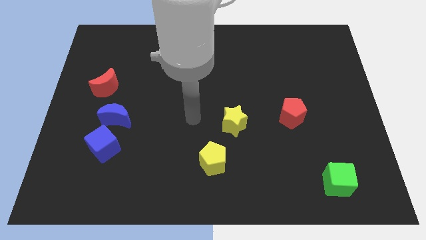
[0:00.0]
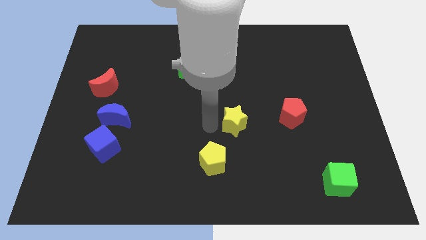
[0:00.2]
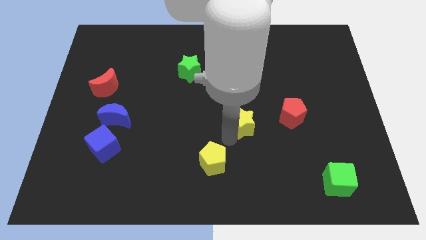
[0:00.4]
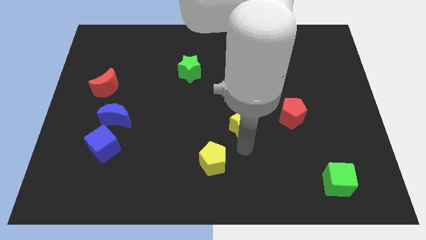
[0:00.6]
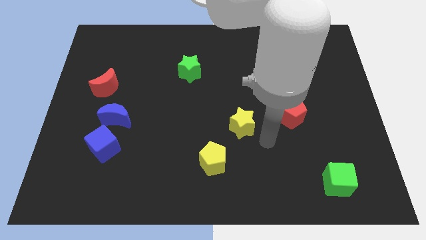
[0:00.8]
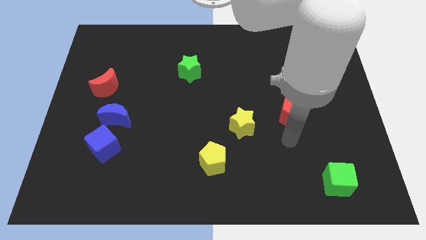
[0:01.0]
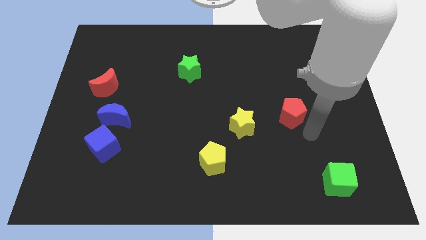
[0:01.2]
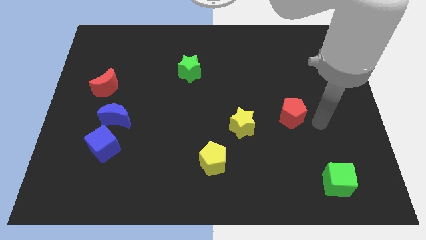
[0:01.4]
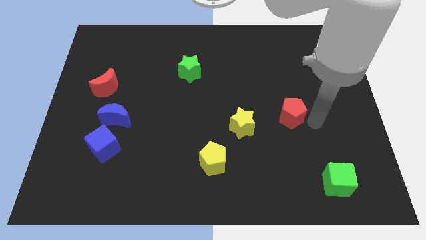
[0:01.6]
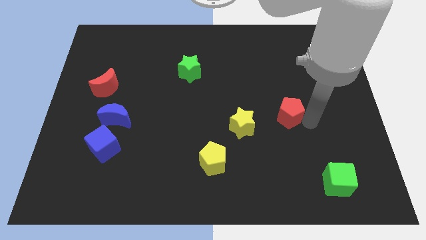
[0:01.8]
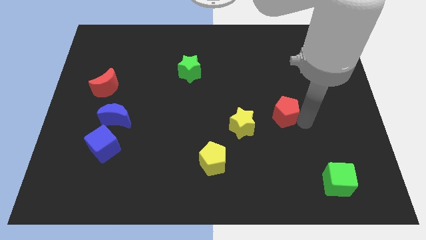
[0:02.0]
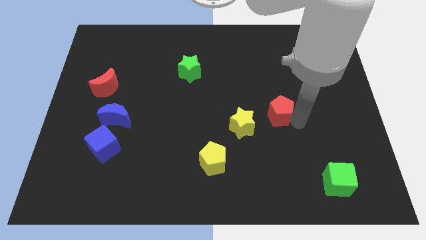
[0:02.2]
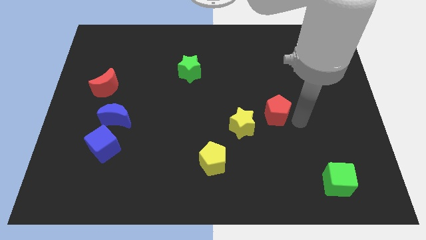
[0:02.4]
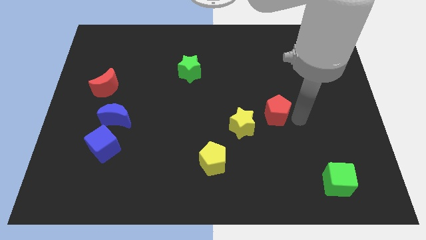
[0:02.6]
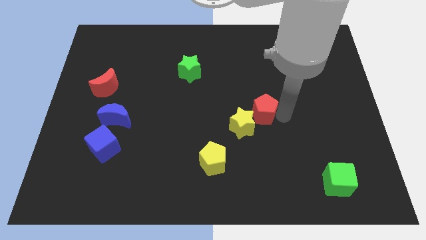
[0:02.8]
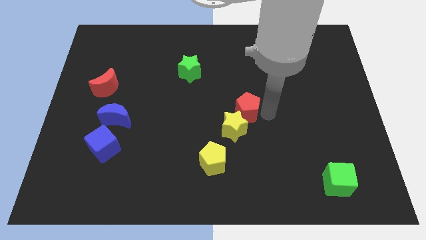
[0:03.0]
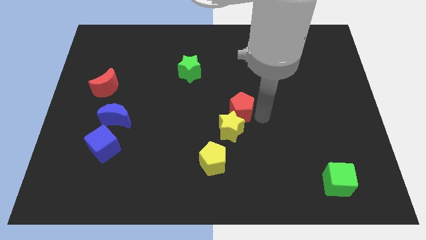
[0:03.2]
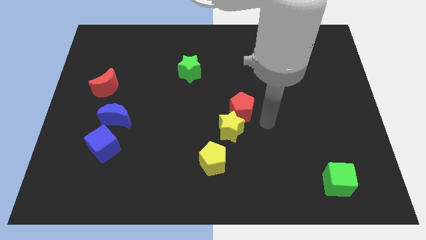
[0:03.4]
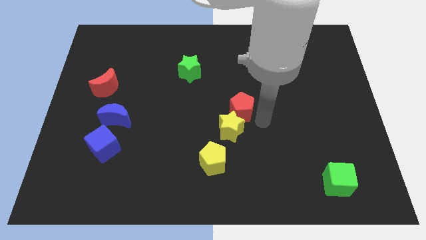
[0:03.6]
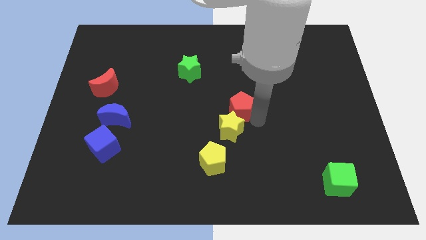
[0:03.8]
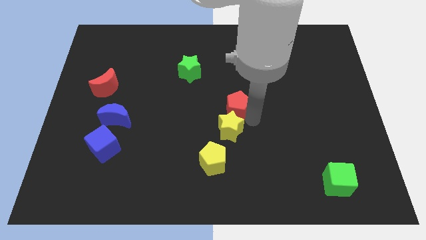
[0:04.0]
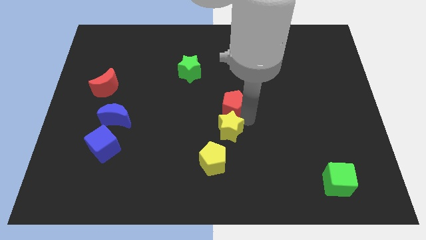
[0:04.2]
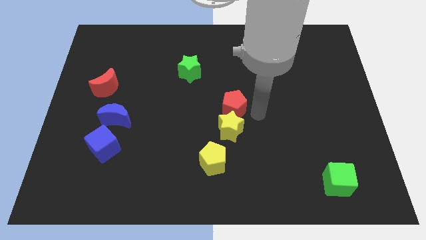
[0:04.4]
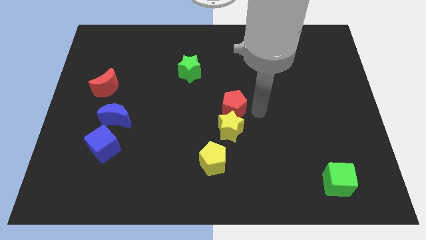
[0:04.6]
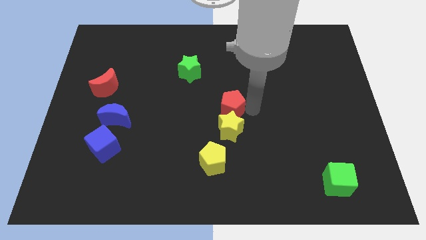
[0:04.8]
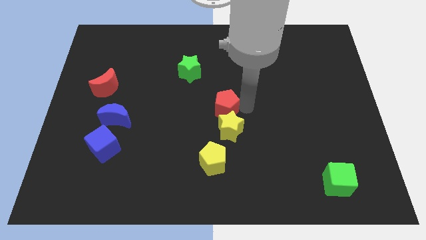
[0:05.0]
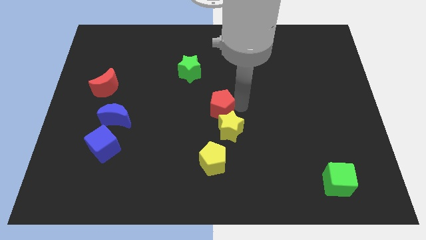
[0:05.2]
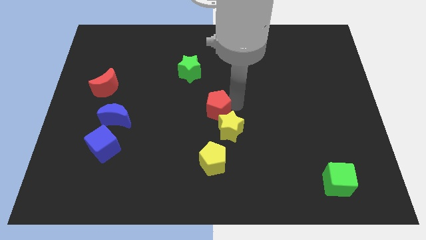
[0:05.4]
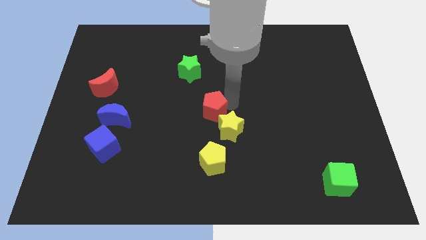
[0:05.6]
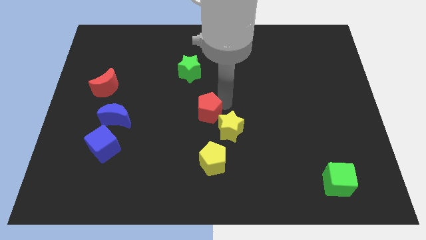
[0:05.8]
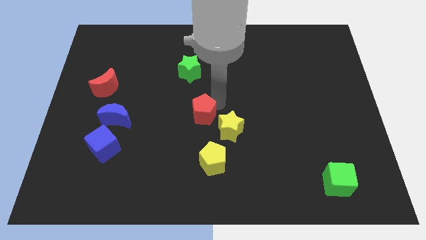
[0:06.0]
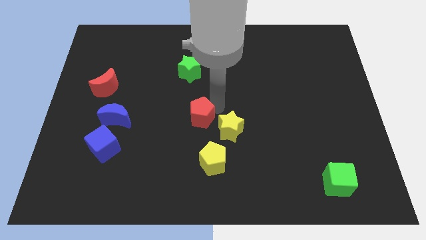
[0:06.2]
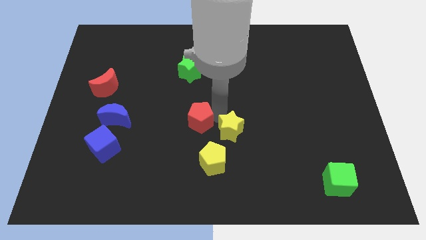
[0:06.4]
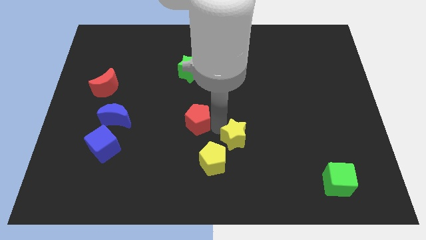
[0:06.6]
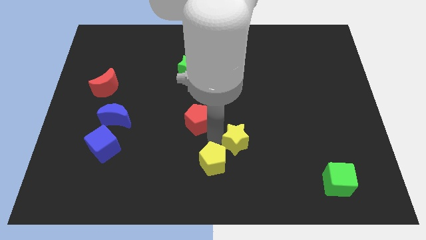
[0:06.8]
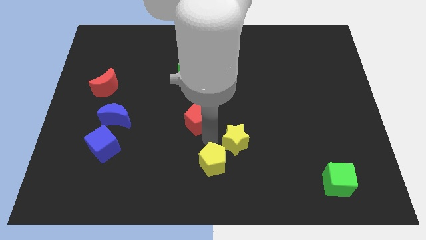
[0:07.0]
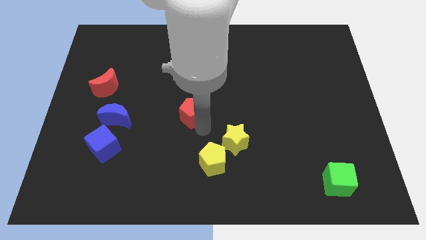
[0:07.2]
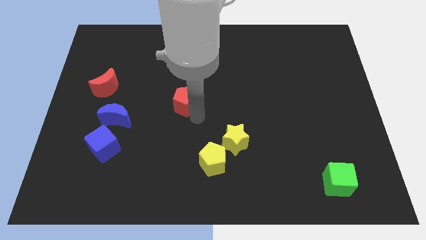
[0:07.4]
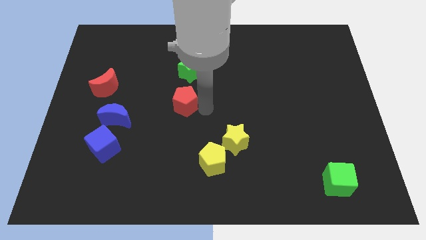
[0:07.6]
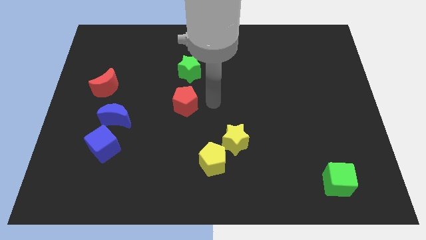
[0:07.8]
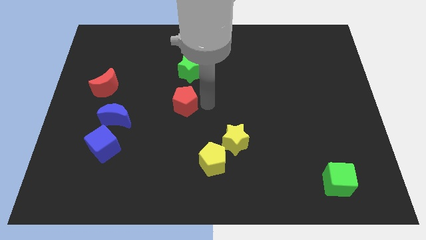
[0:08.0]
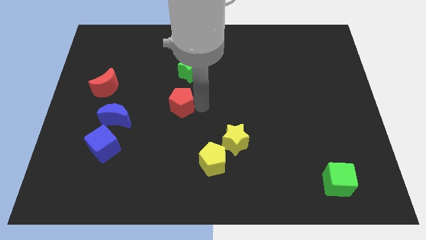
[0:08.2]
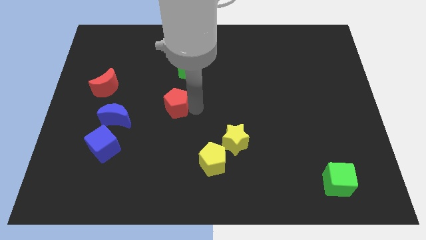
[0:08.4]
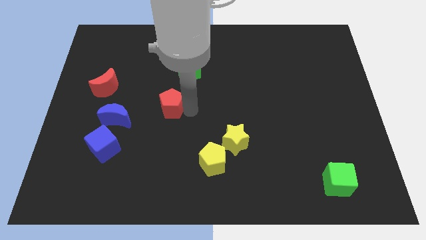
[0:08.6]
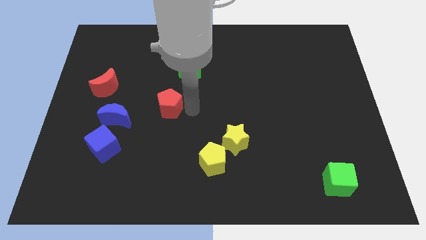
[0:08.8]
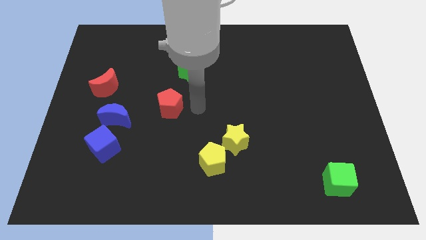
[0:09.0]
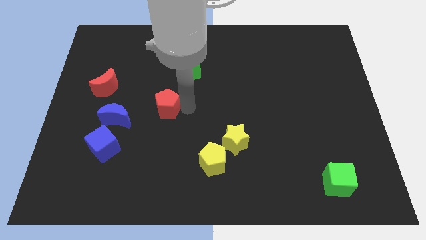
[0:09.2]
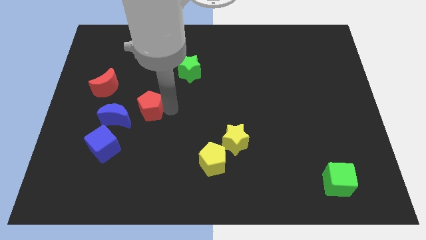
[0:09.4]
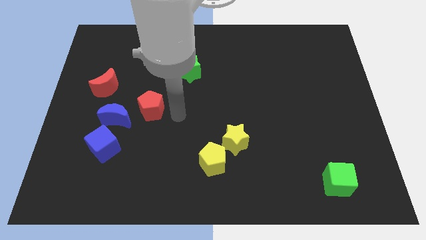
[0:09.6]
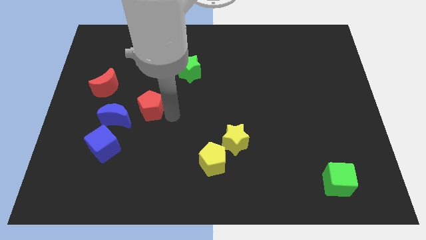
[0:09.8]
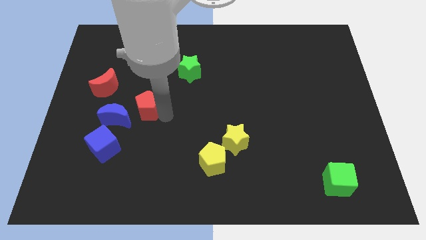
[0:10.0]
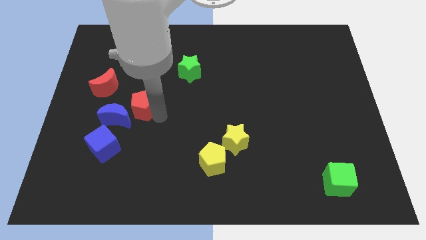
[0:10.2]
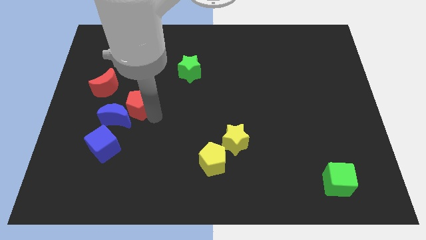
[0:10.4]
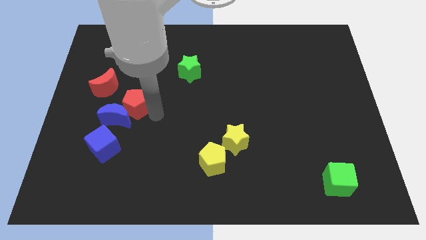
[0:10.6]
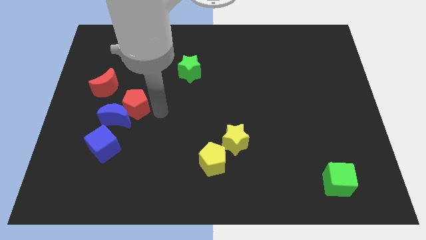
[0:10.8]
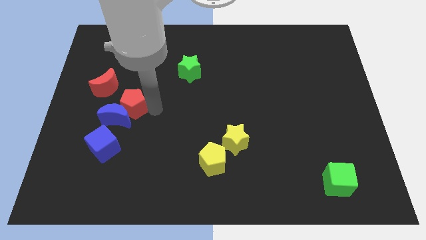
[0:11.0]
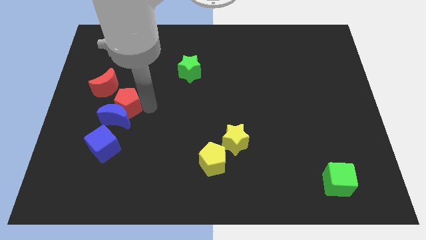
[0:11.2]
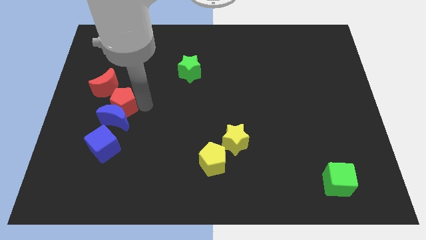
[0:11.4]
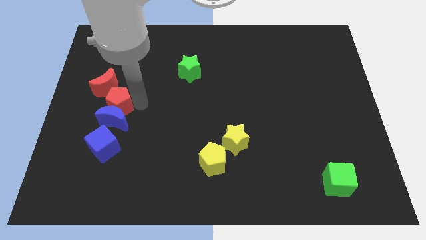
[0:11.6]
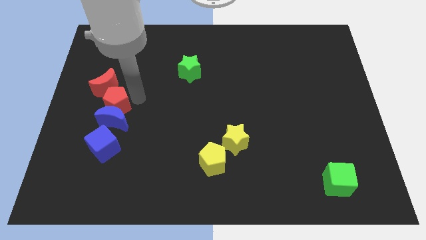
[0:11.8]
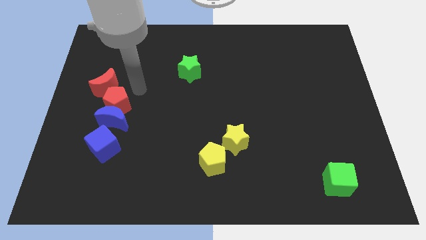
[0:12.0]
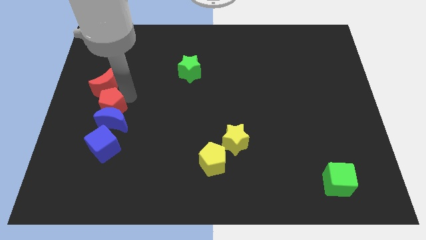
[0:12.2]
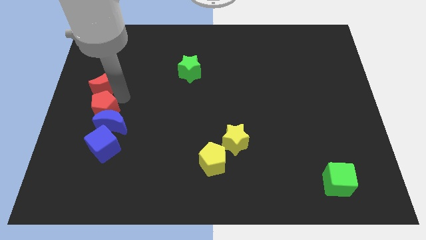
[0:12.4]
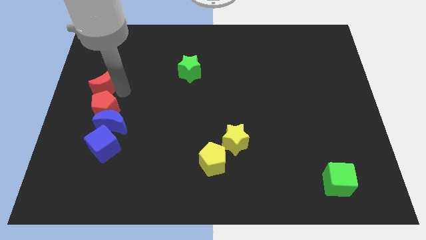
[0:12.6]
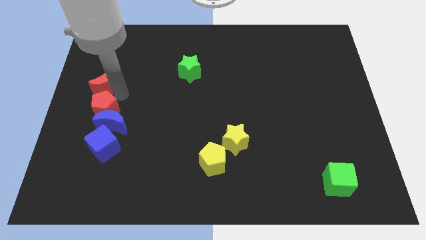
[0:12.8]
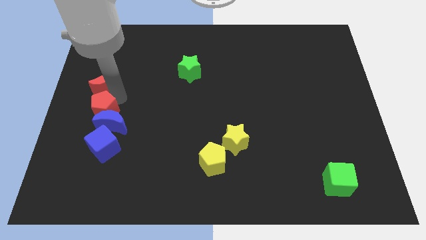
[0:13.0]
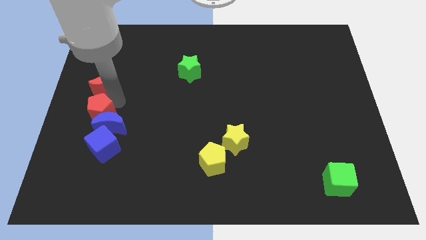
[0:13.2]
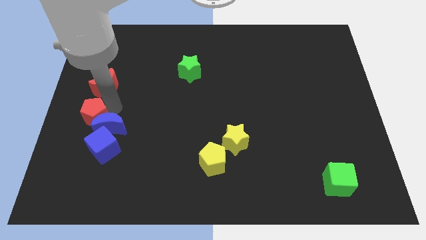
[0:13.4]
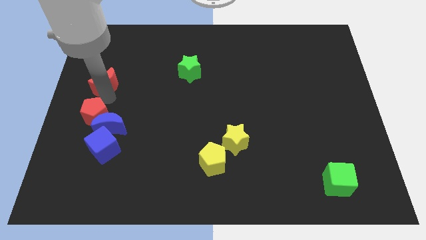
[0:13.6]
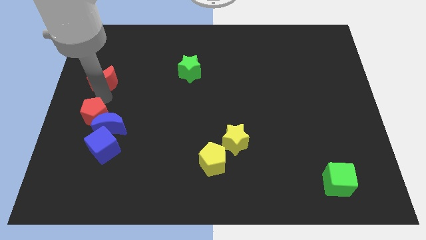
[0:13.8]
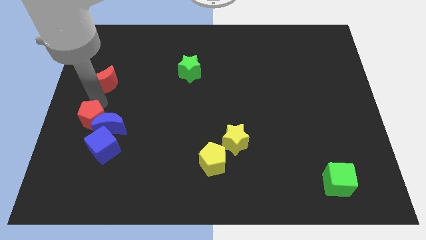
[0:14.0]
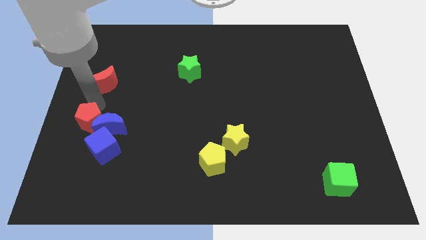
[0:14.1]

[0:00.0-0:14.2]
push the red pentagon to the bottom left of the blue moon
